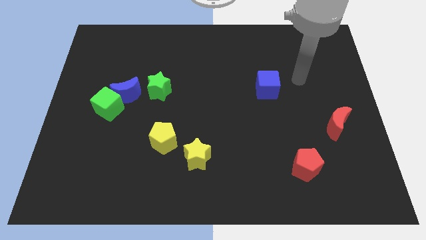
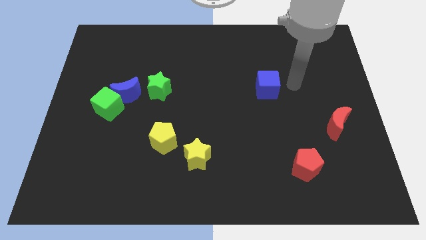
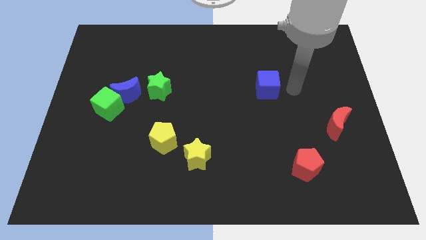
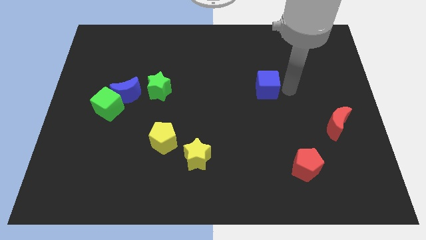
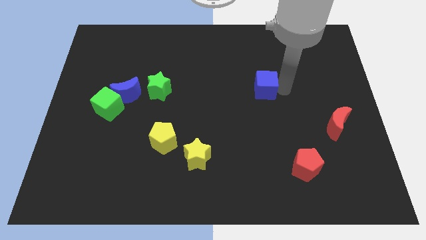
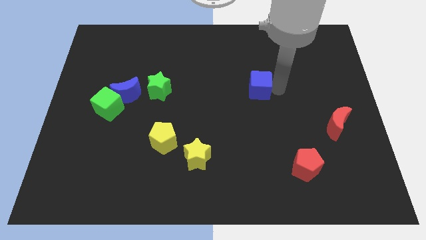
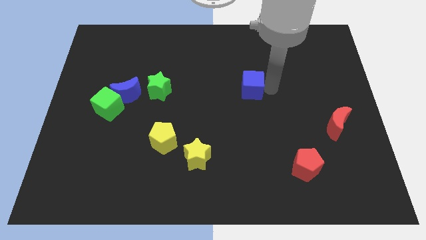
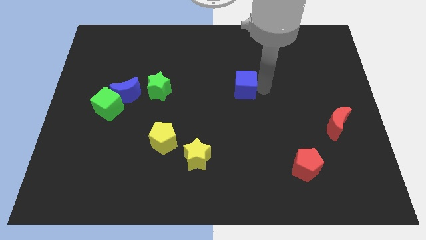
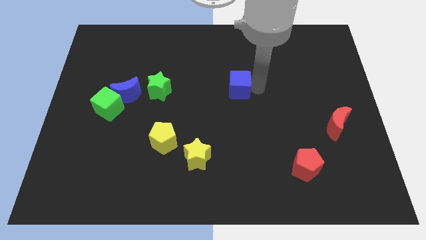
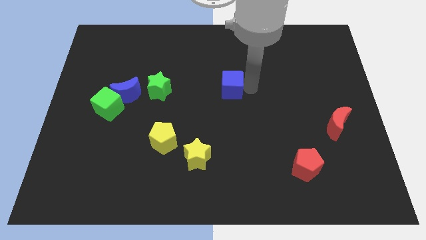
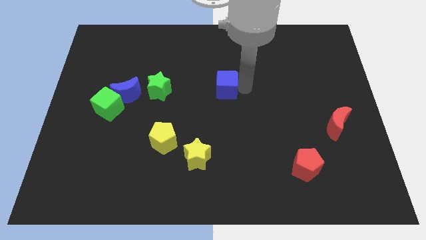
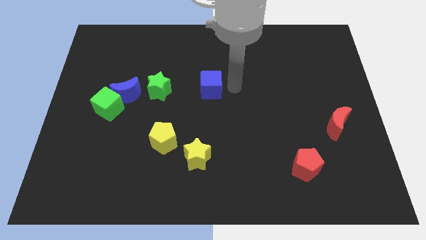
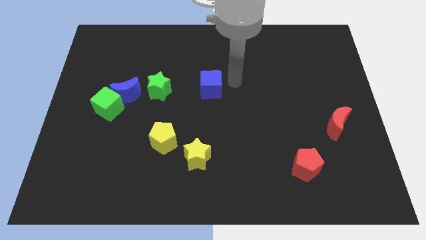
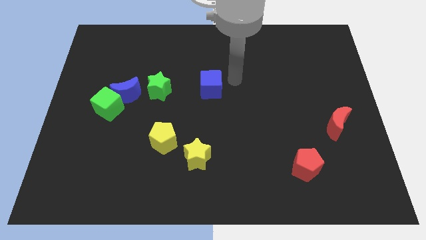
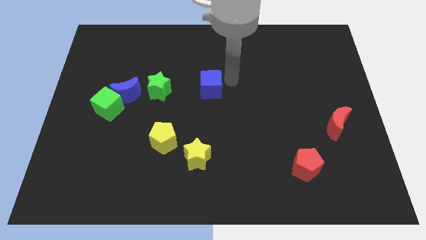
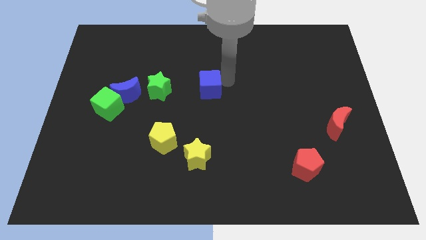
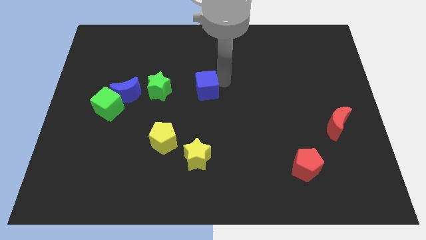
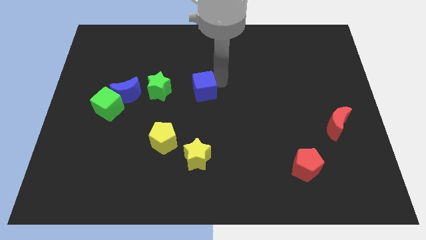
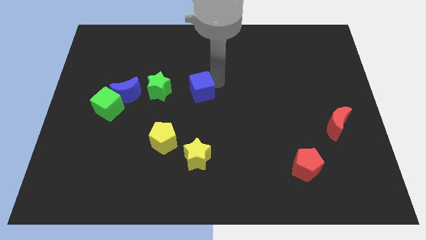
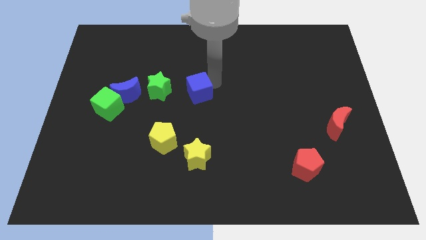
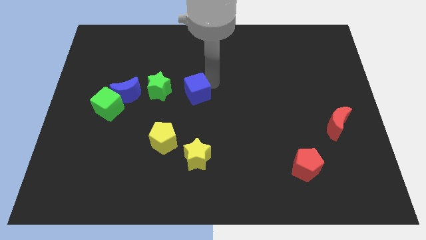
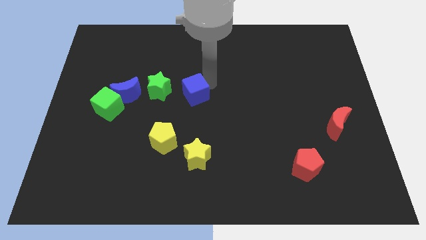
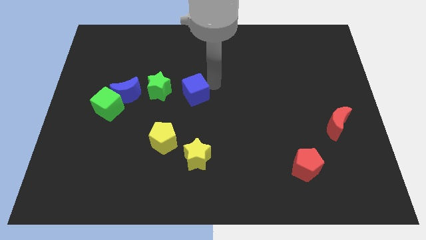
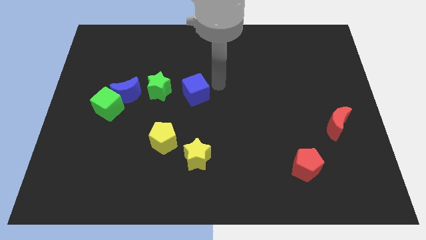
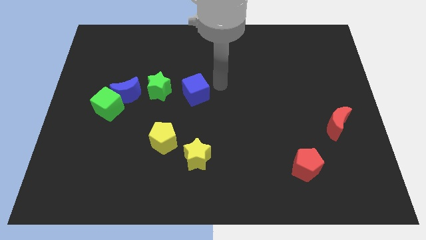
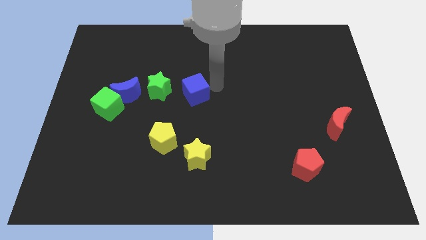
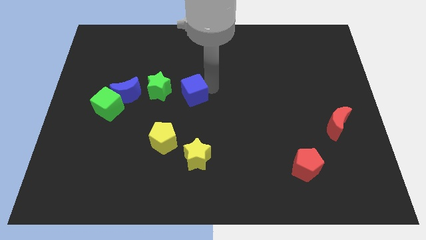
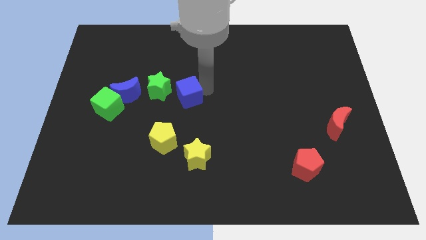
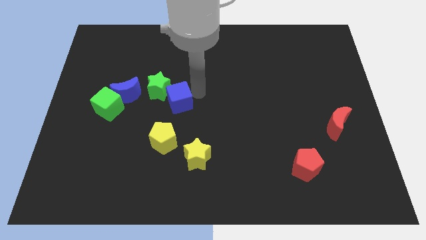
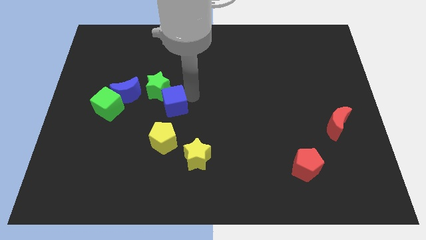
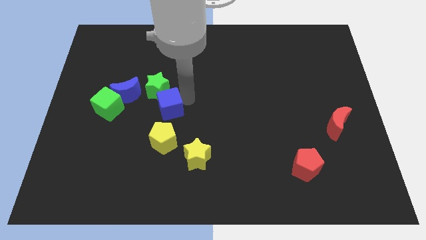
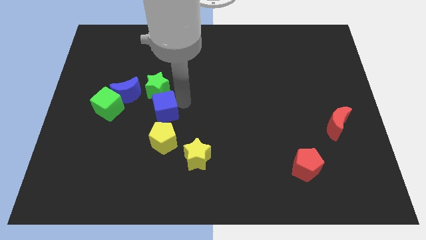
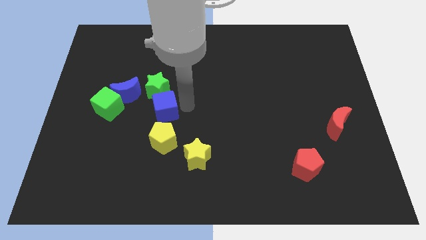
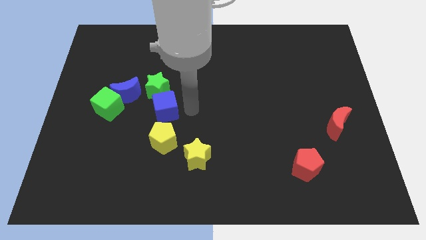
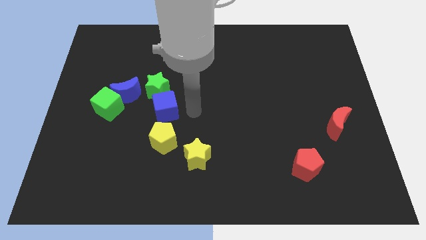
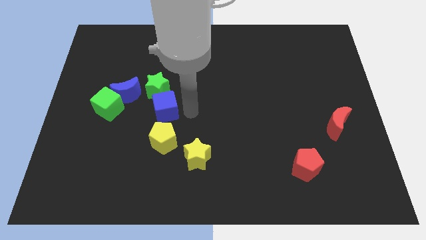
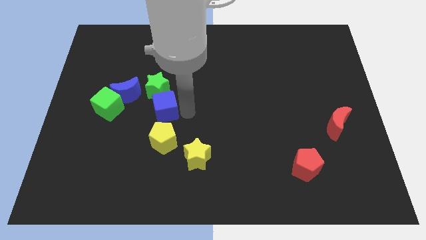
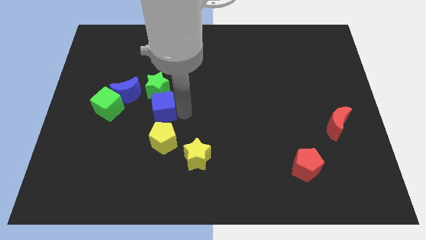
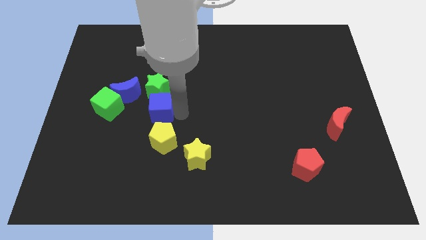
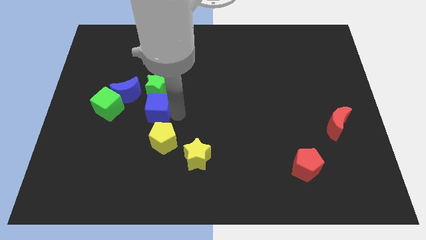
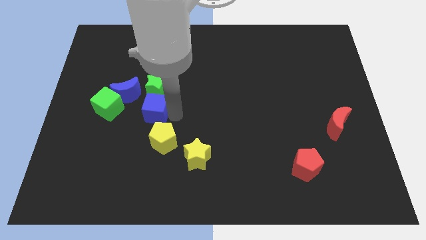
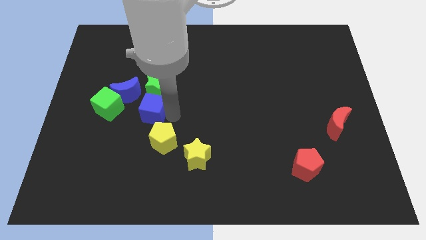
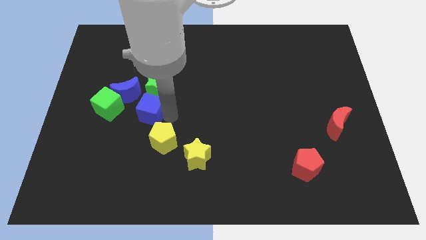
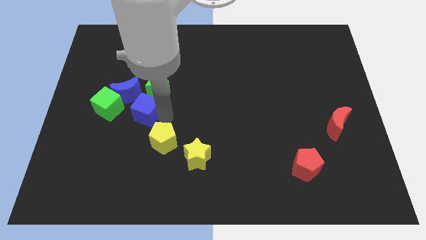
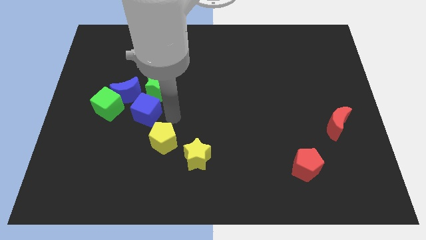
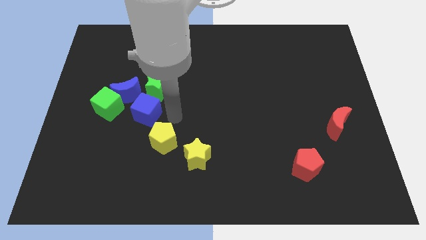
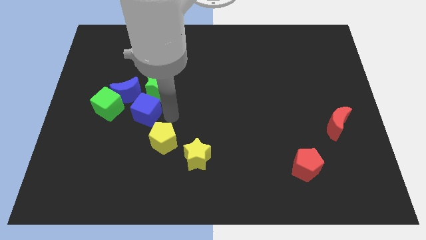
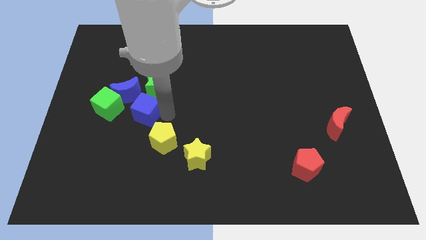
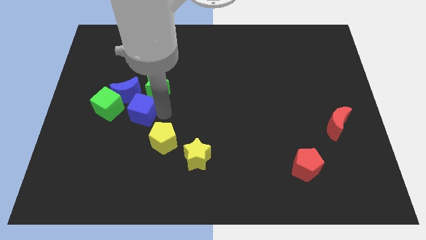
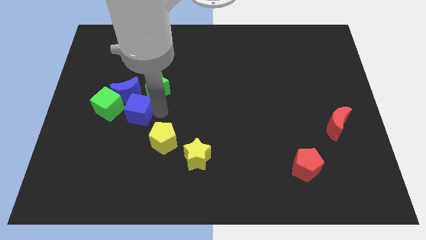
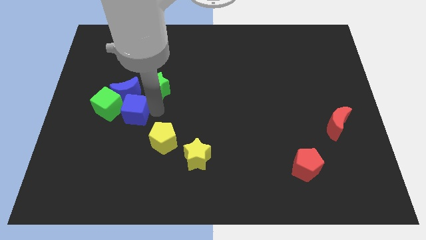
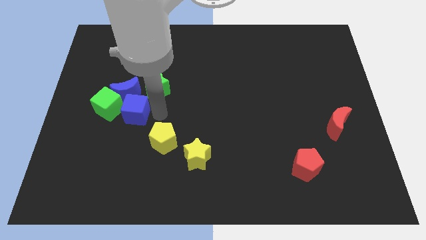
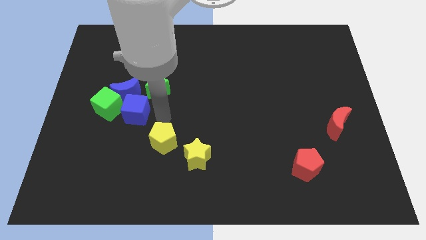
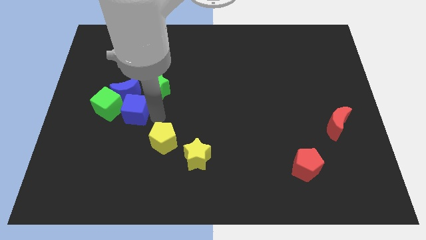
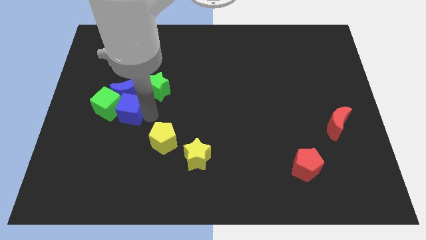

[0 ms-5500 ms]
move the blue cube next to the green cube

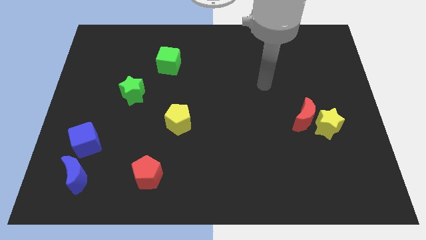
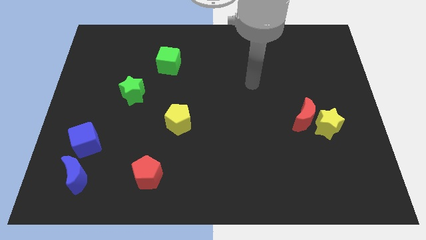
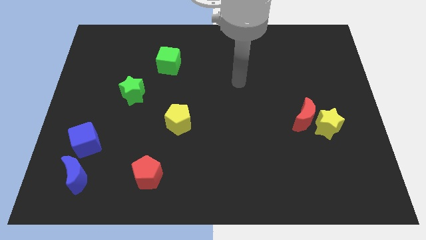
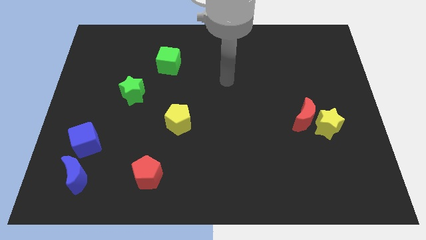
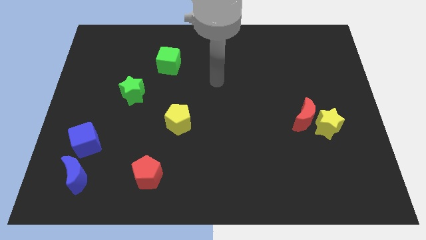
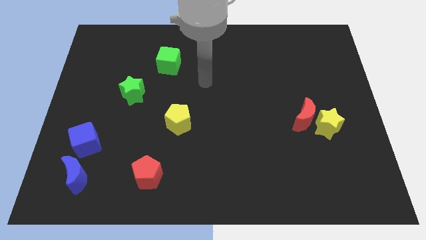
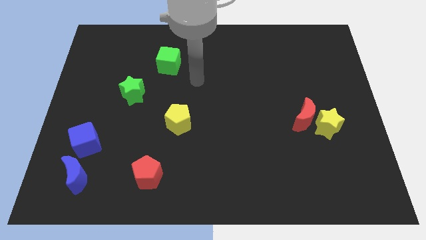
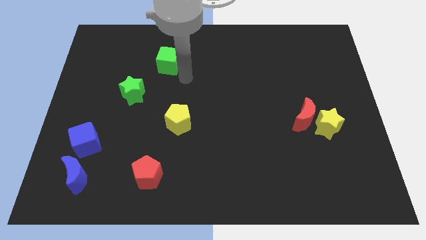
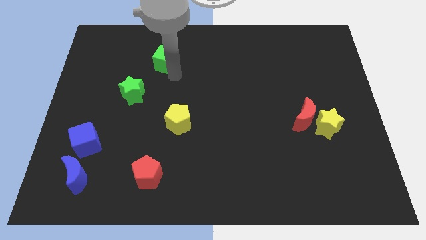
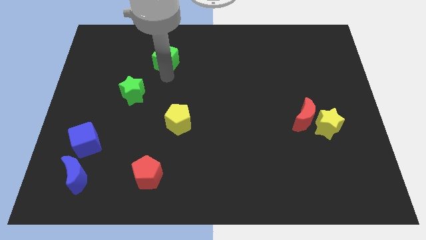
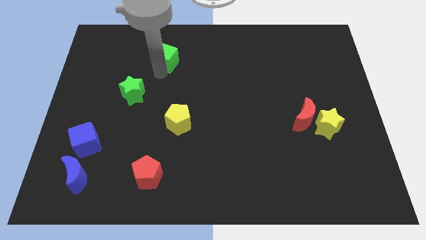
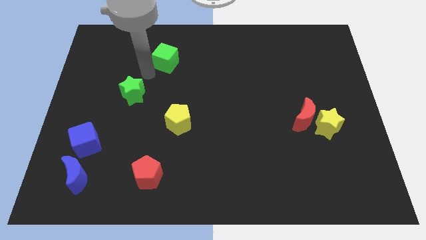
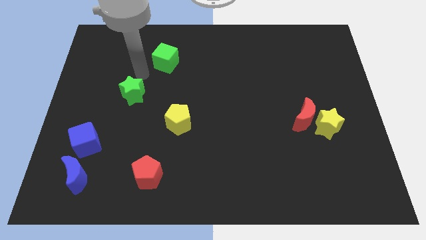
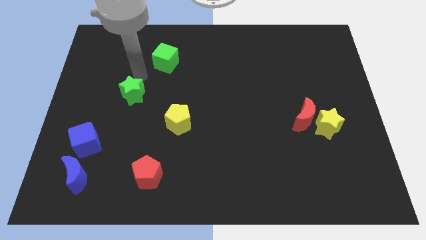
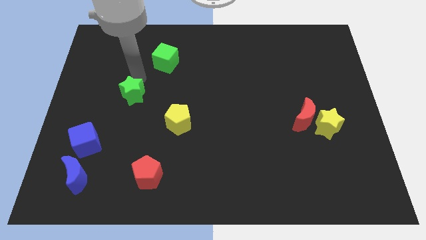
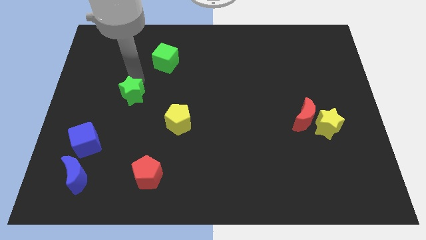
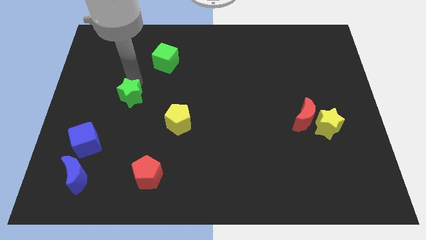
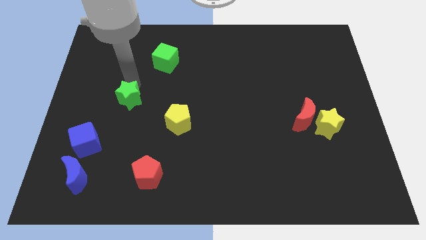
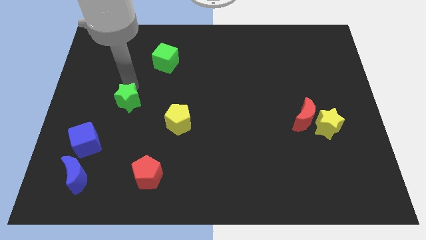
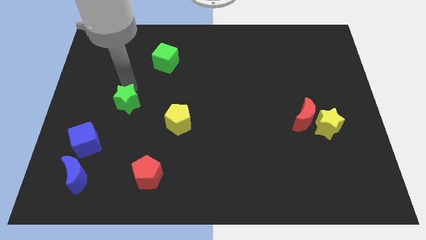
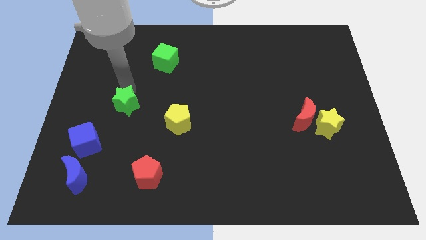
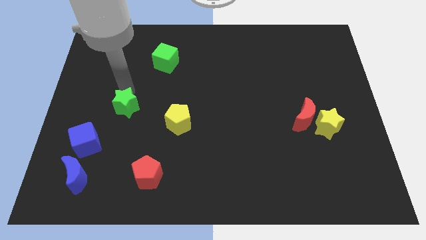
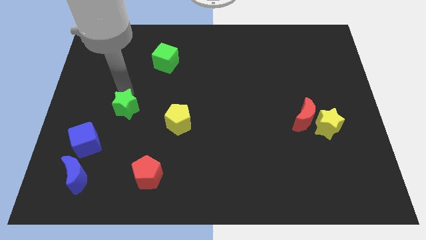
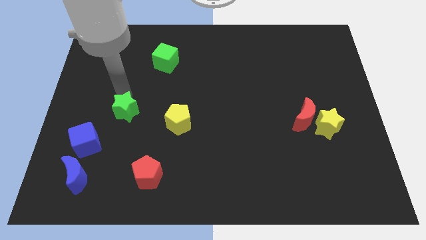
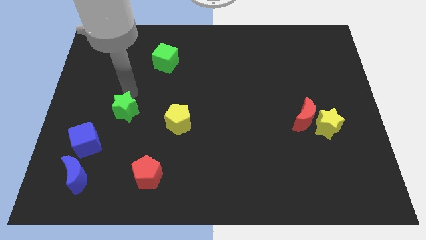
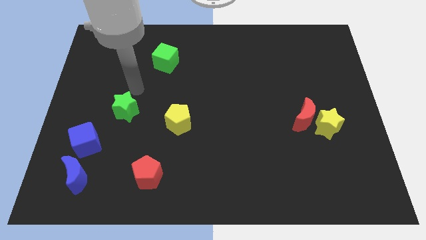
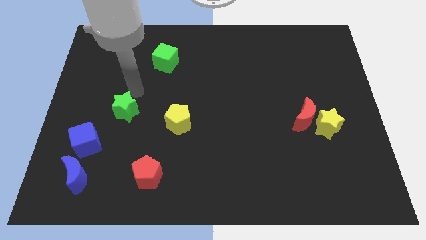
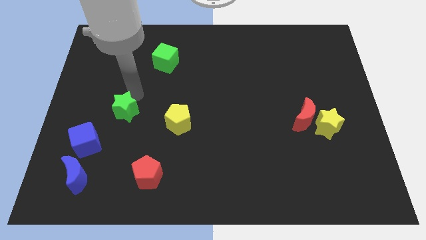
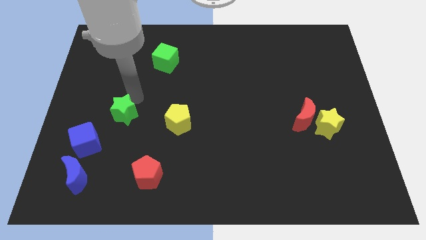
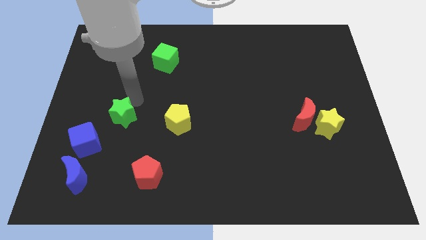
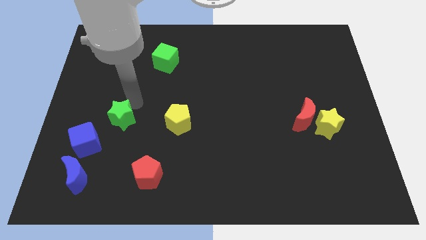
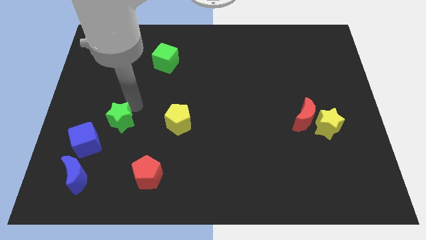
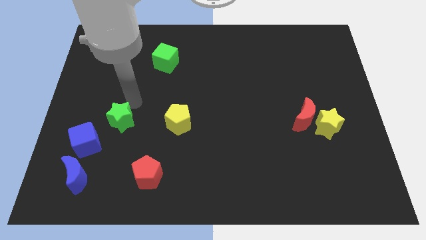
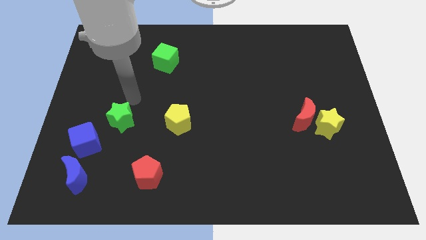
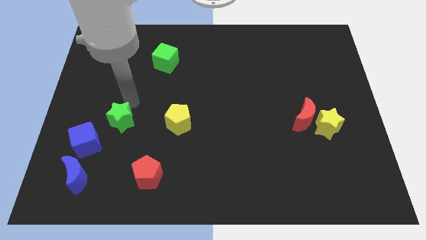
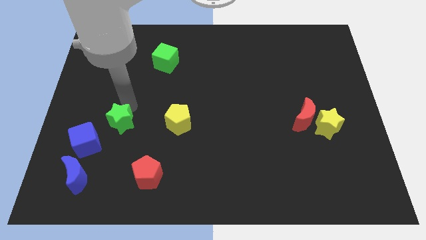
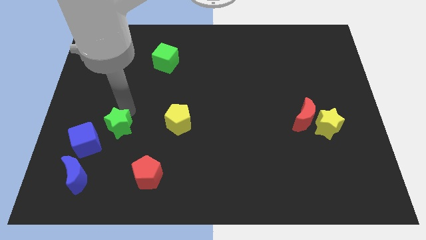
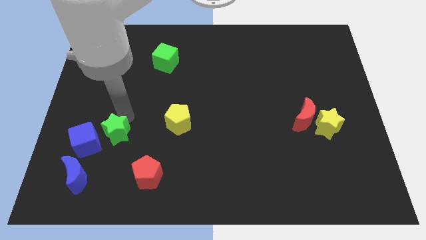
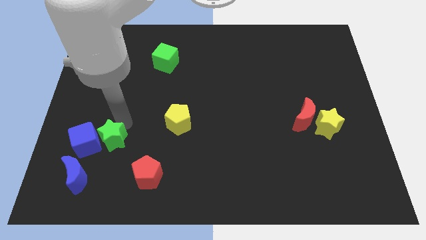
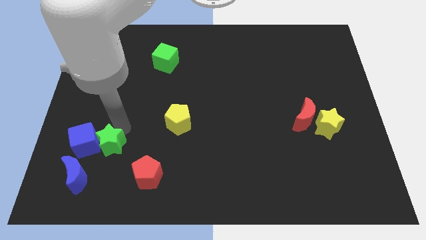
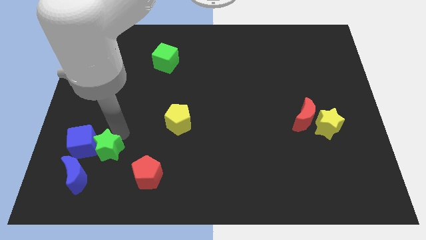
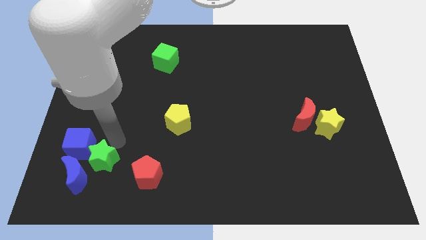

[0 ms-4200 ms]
push the green star close to the blue moon
